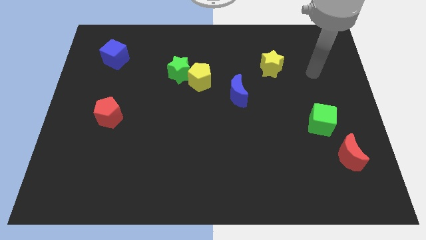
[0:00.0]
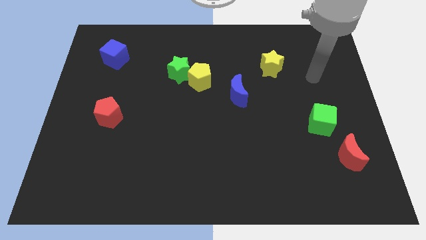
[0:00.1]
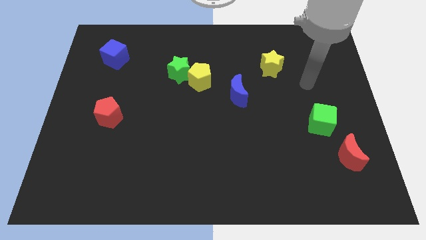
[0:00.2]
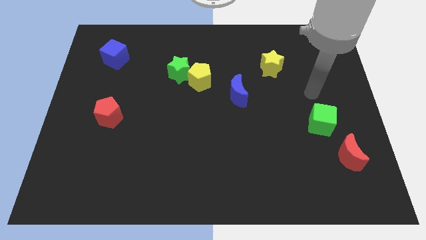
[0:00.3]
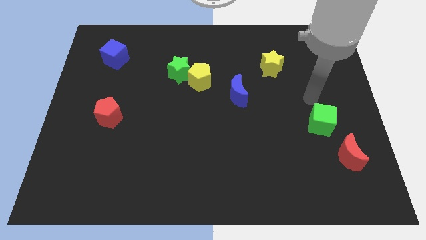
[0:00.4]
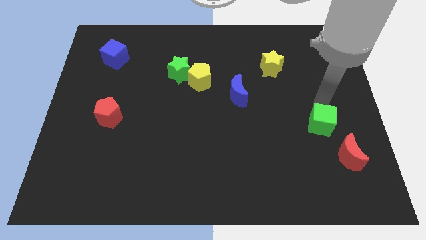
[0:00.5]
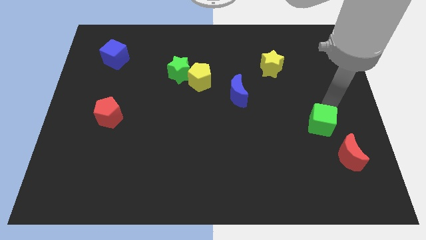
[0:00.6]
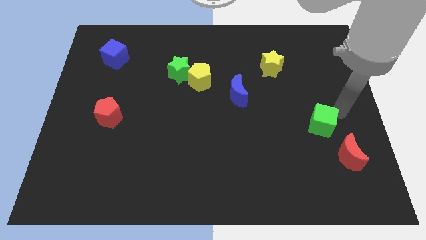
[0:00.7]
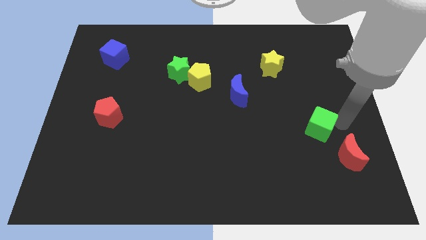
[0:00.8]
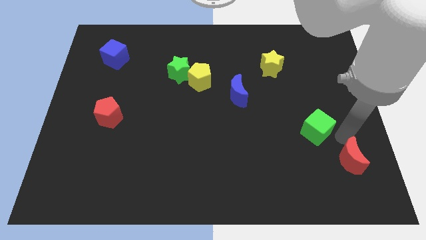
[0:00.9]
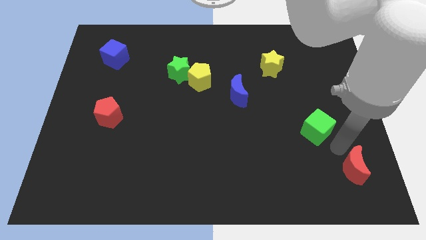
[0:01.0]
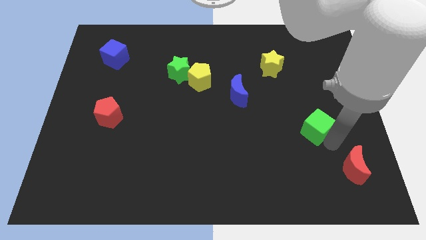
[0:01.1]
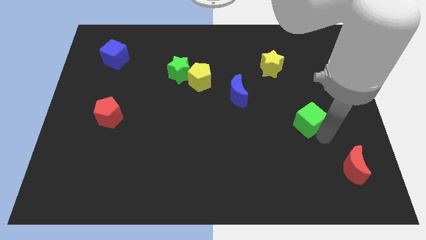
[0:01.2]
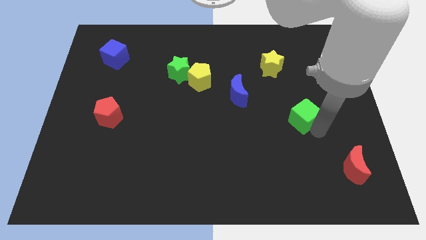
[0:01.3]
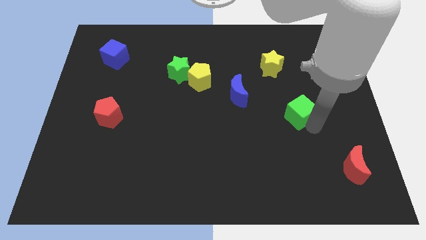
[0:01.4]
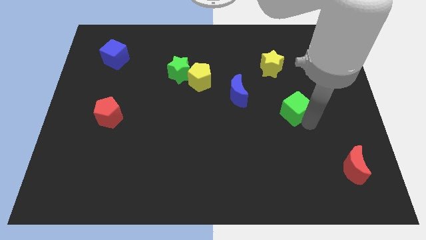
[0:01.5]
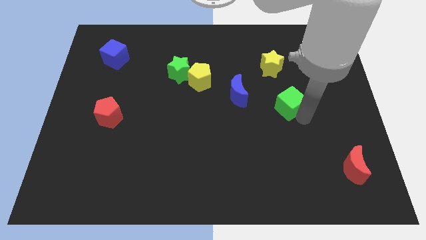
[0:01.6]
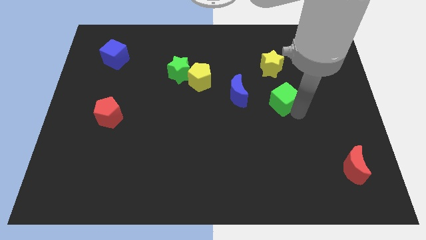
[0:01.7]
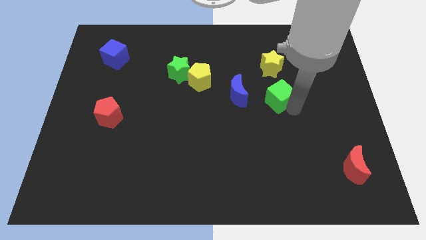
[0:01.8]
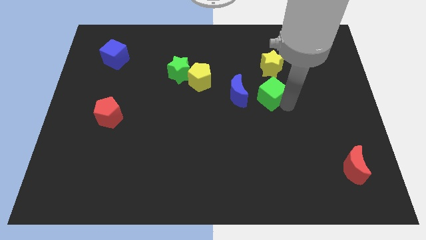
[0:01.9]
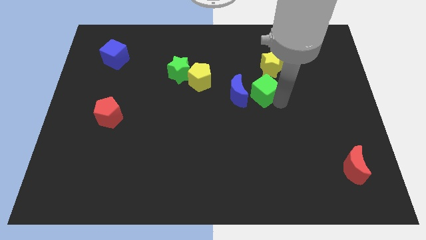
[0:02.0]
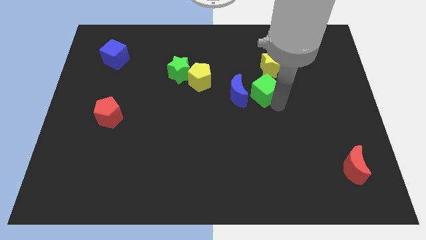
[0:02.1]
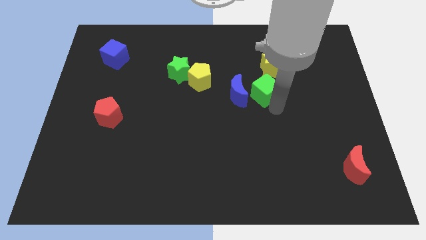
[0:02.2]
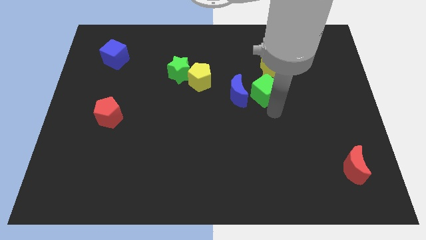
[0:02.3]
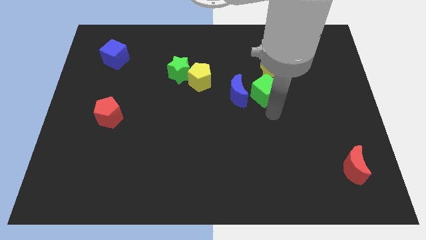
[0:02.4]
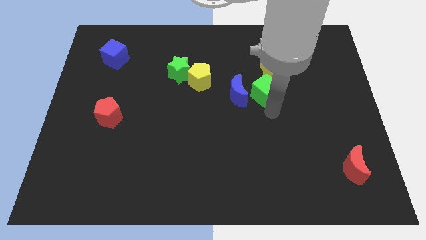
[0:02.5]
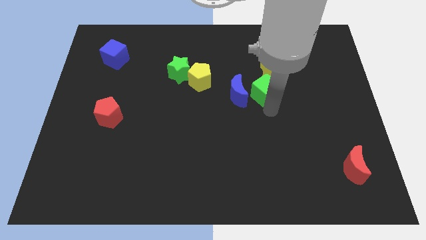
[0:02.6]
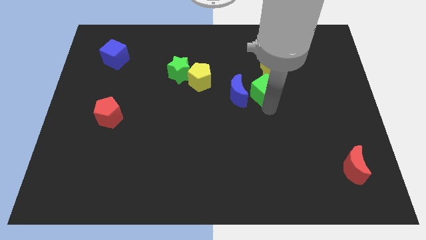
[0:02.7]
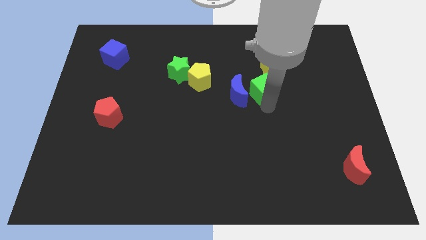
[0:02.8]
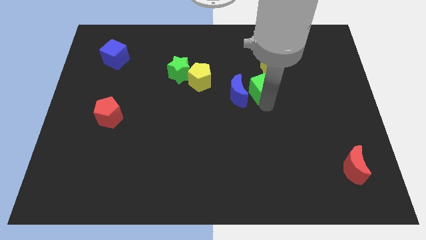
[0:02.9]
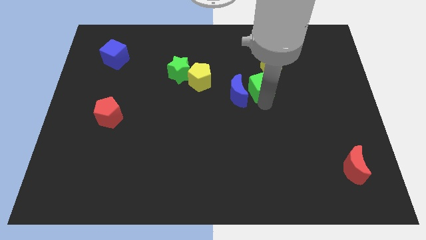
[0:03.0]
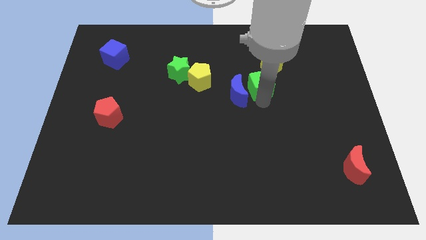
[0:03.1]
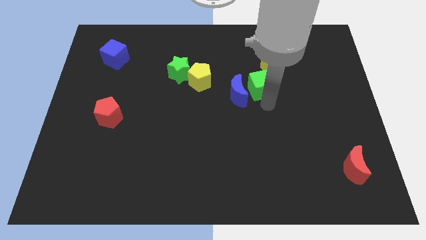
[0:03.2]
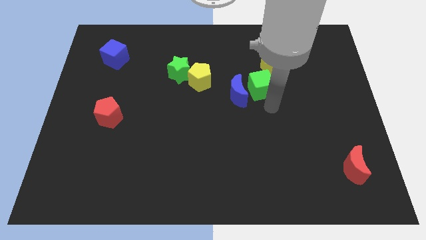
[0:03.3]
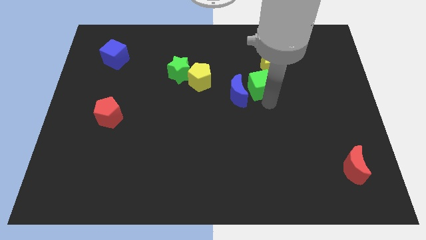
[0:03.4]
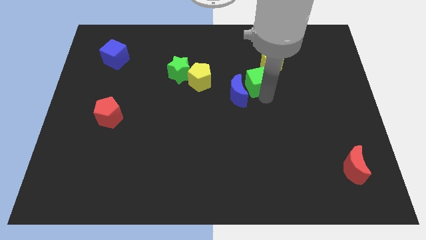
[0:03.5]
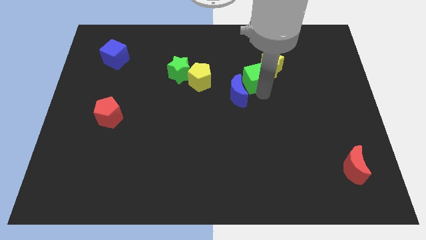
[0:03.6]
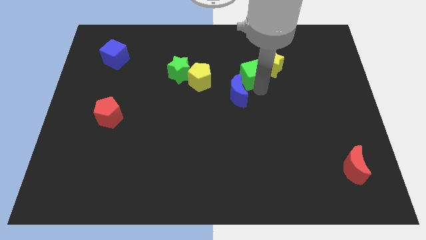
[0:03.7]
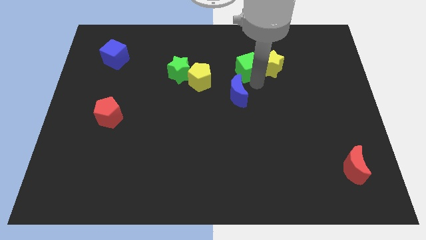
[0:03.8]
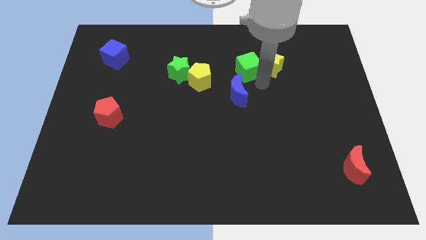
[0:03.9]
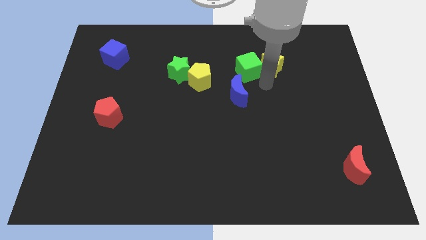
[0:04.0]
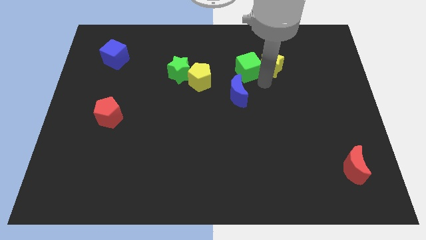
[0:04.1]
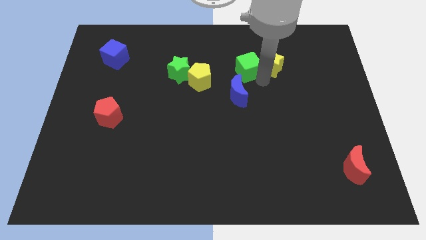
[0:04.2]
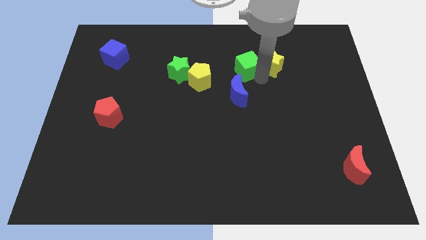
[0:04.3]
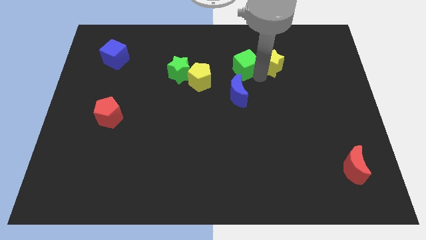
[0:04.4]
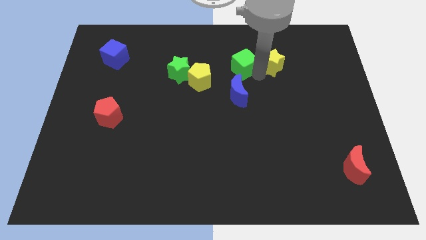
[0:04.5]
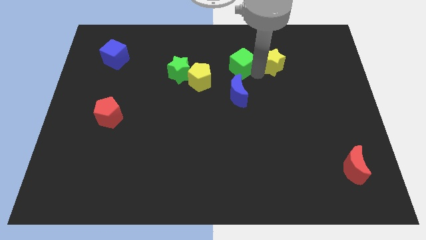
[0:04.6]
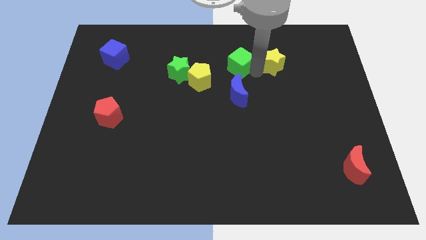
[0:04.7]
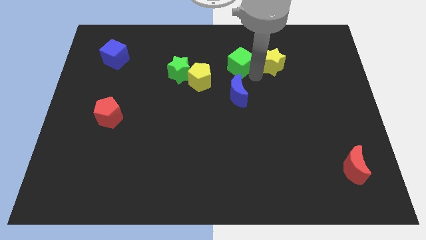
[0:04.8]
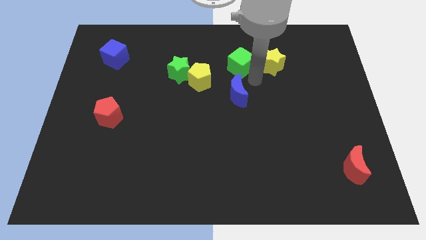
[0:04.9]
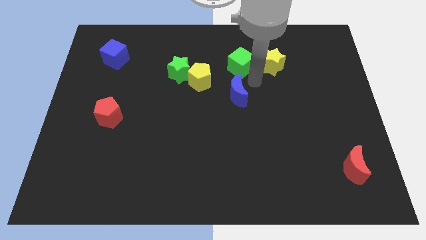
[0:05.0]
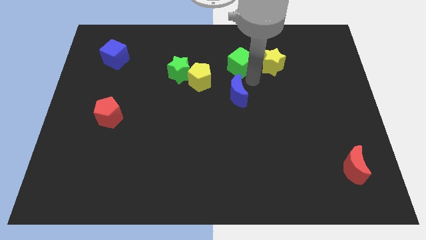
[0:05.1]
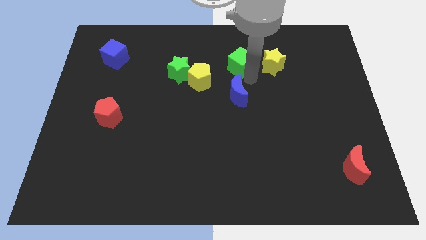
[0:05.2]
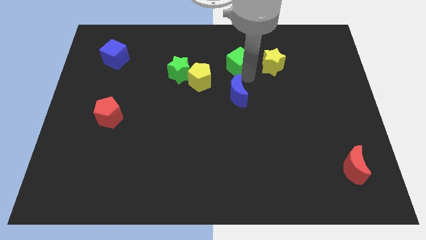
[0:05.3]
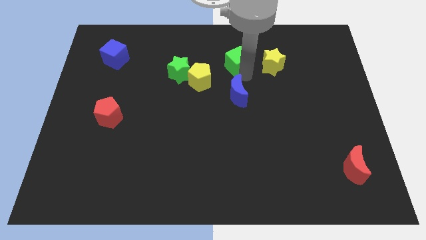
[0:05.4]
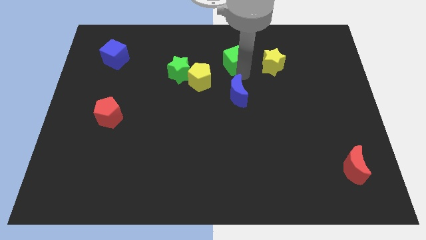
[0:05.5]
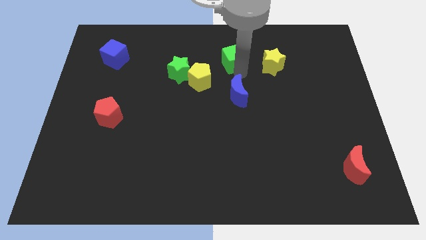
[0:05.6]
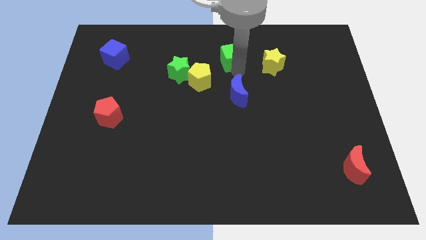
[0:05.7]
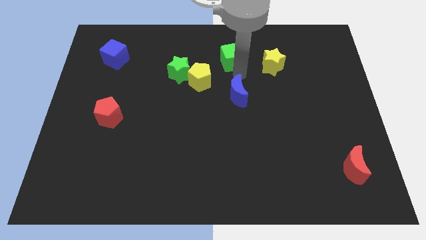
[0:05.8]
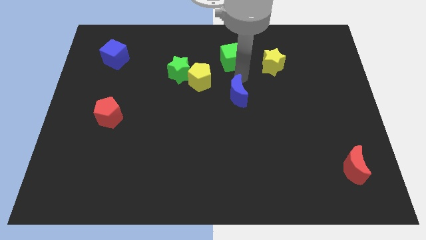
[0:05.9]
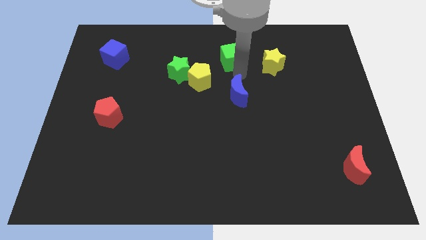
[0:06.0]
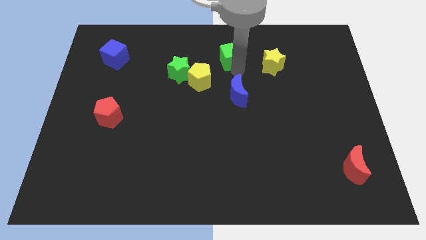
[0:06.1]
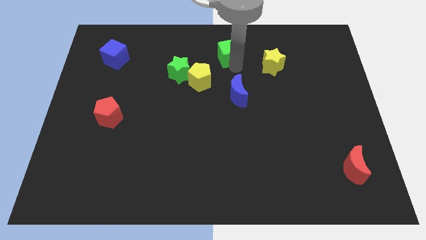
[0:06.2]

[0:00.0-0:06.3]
slide the green cube to the top side
